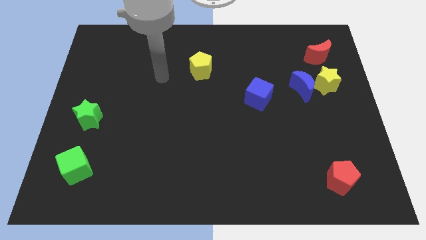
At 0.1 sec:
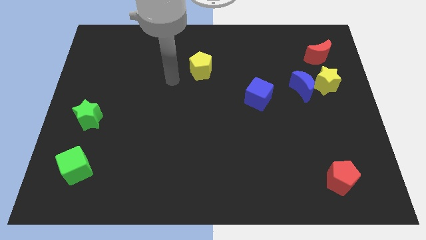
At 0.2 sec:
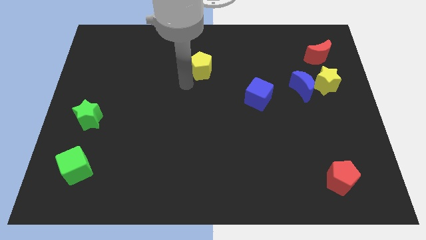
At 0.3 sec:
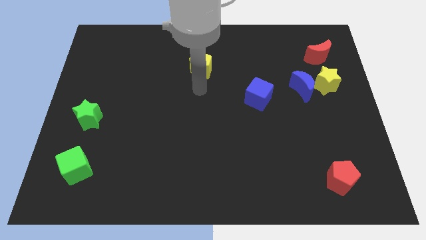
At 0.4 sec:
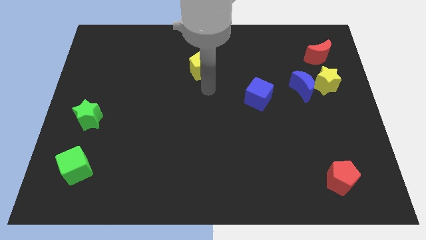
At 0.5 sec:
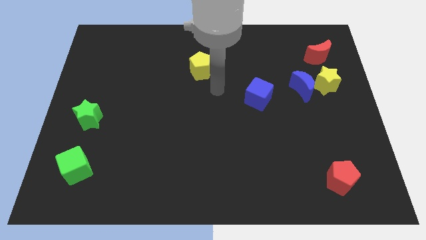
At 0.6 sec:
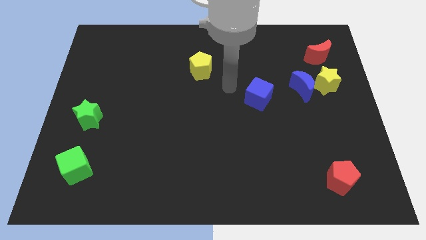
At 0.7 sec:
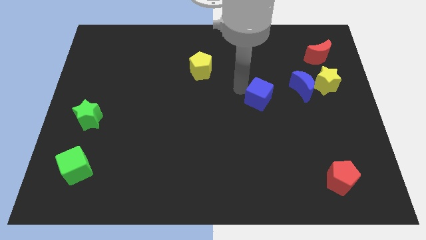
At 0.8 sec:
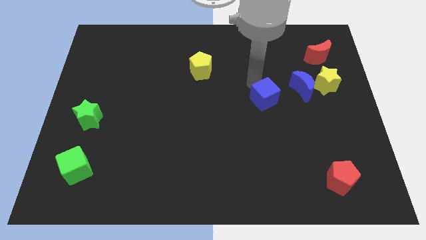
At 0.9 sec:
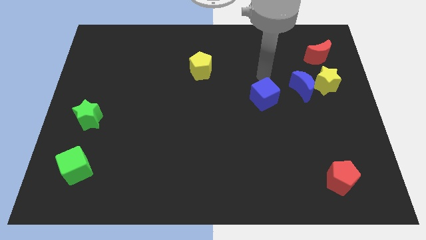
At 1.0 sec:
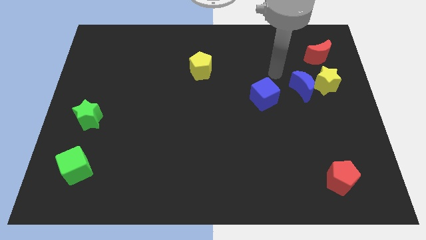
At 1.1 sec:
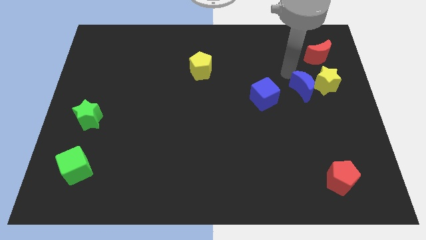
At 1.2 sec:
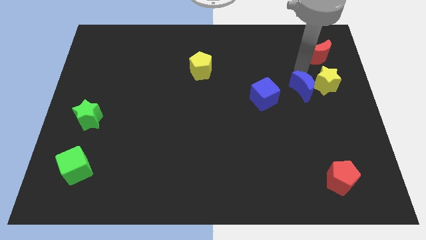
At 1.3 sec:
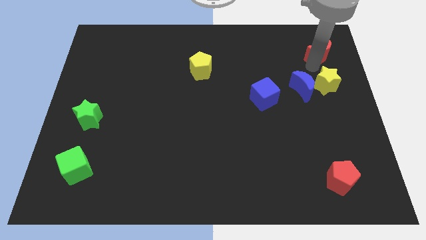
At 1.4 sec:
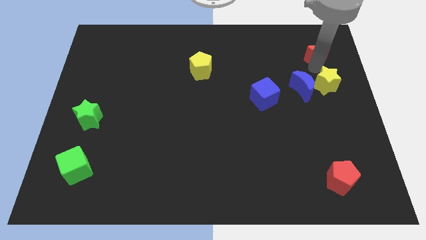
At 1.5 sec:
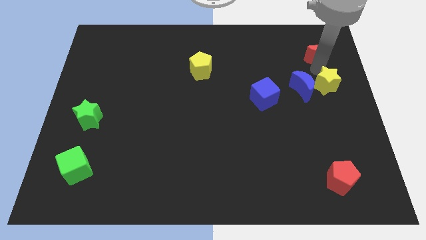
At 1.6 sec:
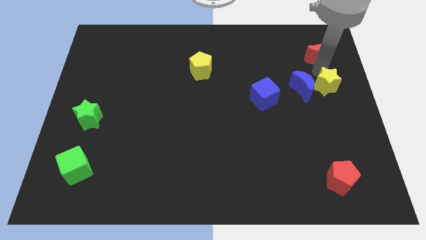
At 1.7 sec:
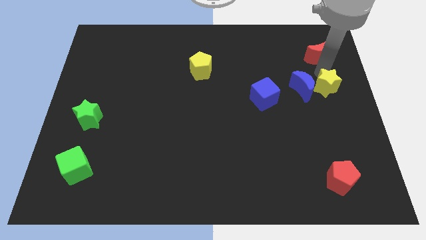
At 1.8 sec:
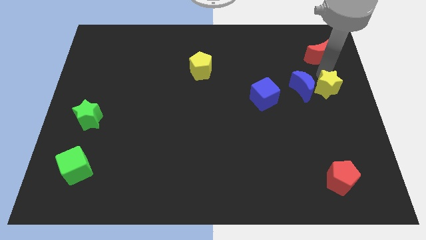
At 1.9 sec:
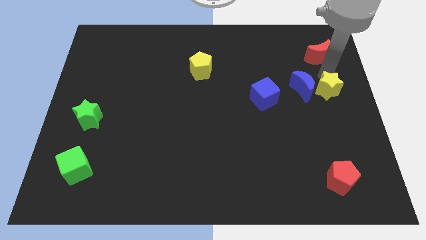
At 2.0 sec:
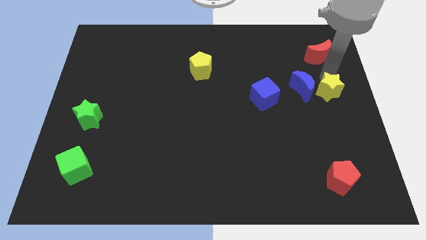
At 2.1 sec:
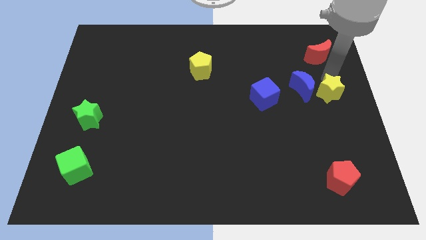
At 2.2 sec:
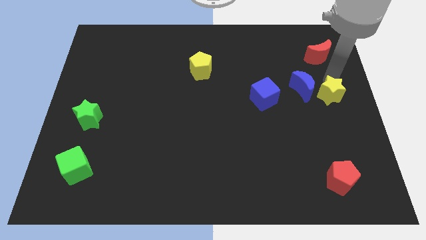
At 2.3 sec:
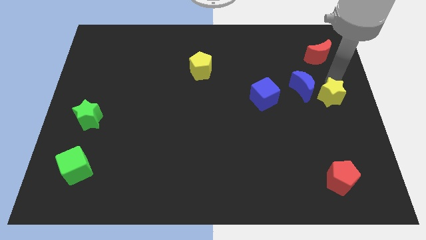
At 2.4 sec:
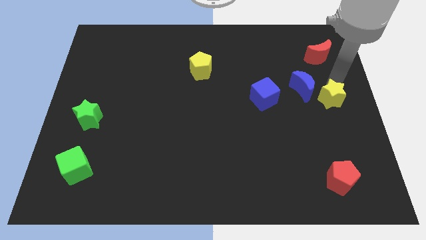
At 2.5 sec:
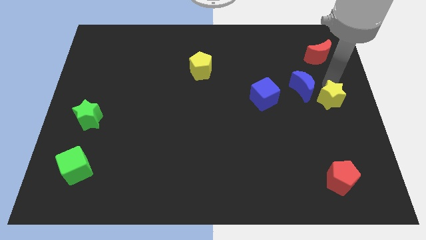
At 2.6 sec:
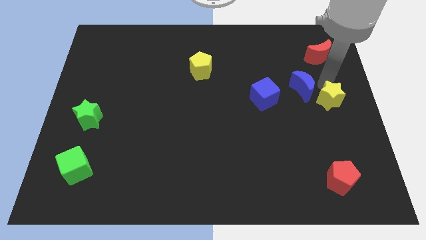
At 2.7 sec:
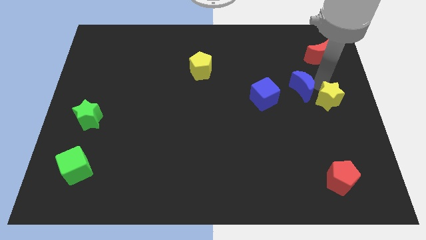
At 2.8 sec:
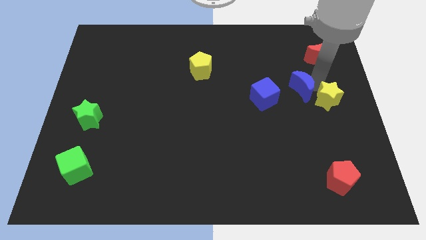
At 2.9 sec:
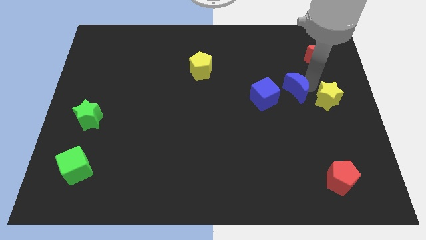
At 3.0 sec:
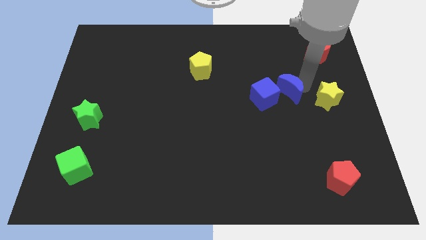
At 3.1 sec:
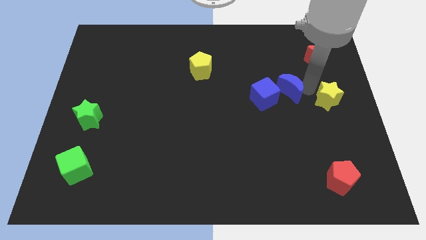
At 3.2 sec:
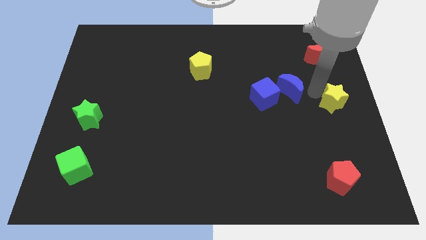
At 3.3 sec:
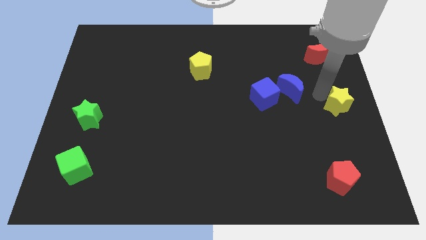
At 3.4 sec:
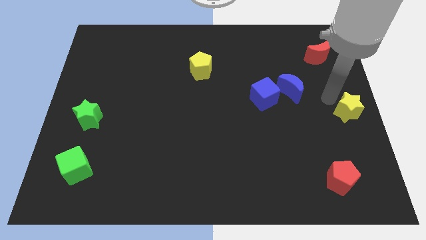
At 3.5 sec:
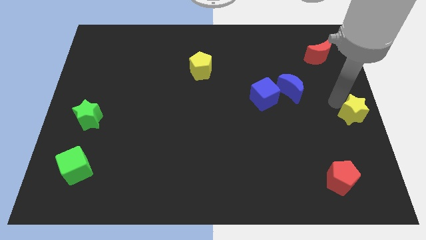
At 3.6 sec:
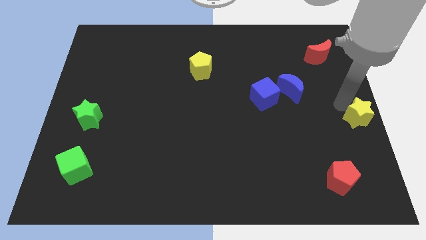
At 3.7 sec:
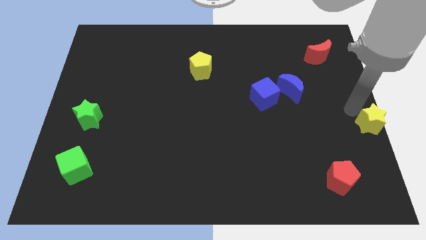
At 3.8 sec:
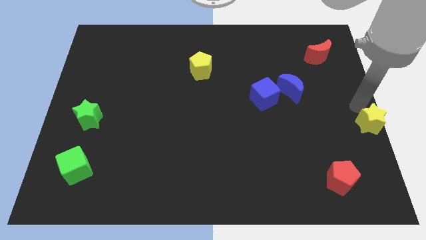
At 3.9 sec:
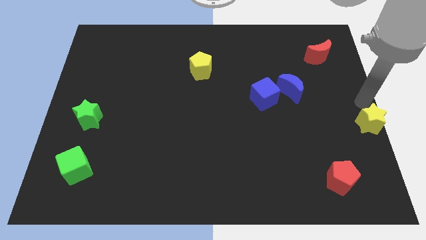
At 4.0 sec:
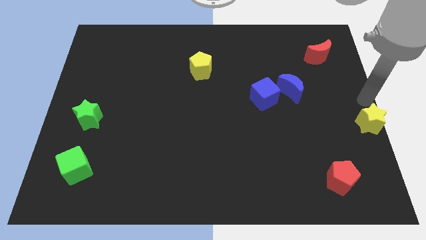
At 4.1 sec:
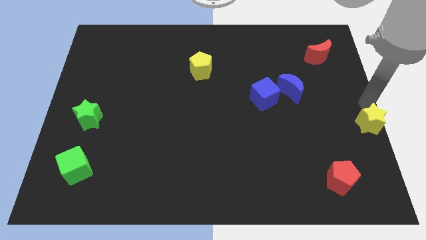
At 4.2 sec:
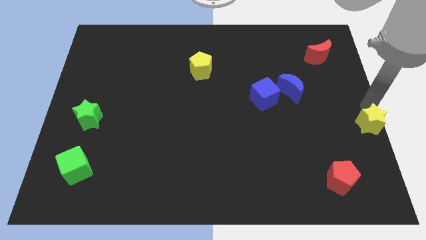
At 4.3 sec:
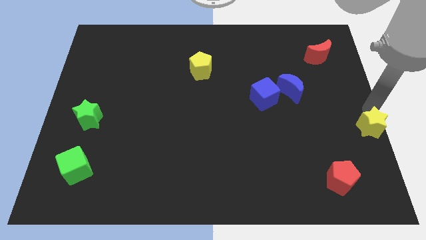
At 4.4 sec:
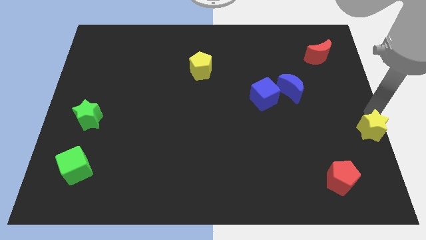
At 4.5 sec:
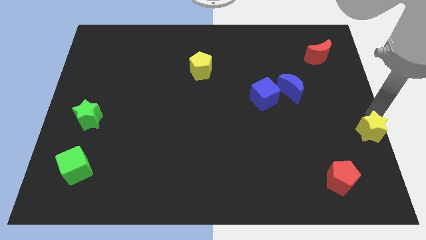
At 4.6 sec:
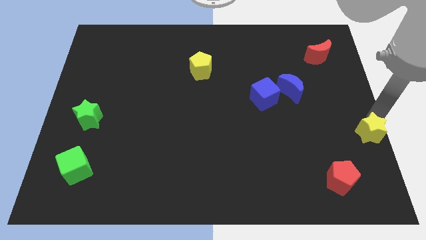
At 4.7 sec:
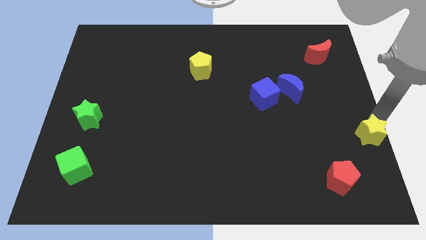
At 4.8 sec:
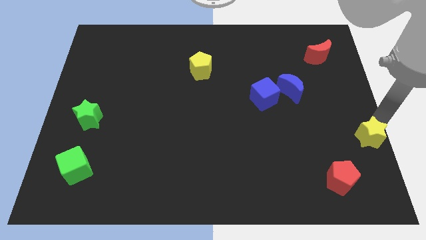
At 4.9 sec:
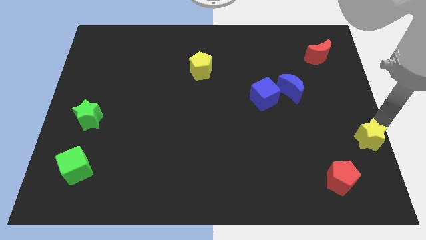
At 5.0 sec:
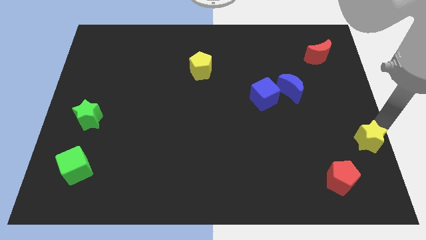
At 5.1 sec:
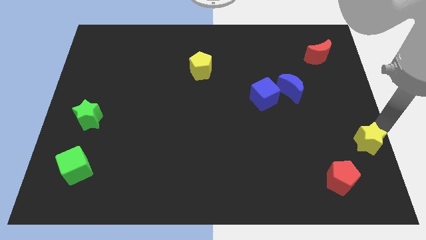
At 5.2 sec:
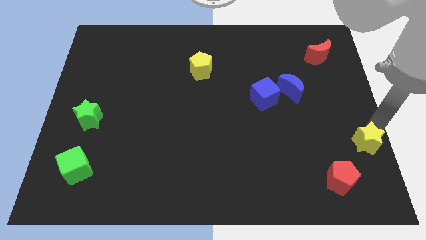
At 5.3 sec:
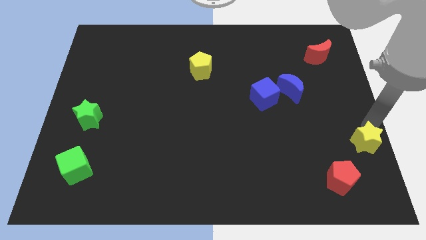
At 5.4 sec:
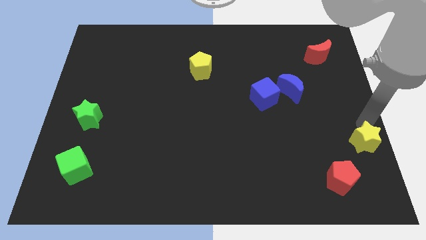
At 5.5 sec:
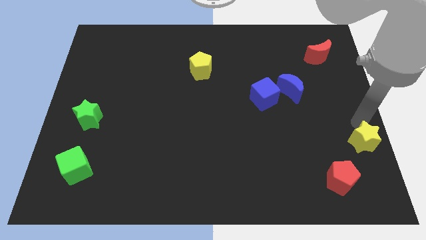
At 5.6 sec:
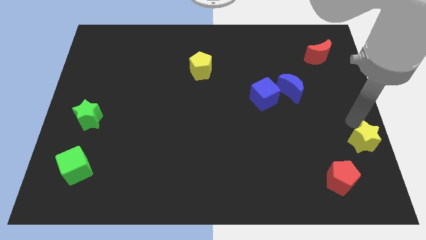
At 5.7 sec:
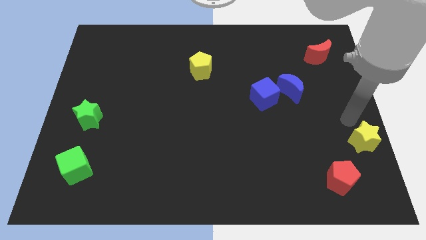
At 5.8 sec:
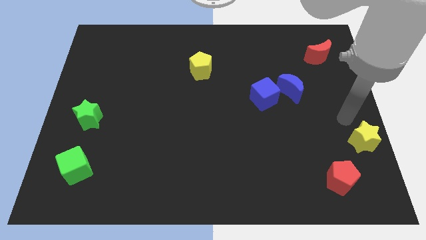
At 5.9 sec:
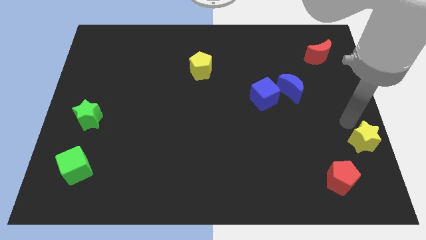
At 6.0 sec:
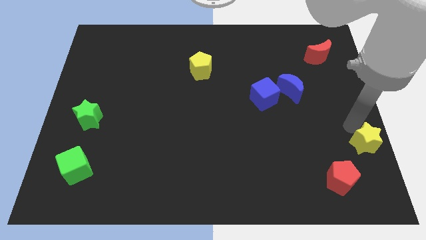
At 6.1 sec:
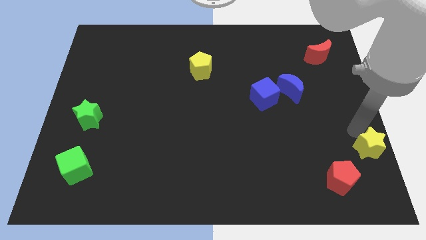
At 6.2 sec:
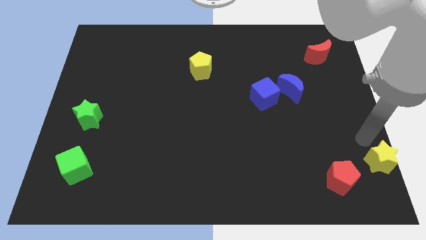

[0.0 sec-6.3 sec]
slide the yellow star to the bottom right corner
